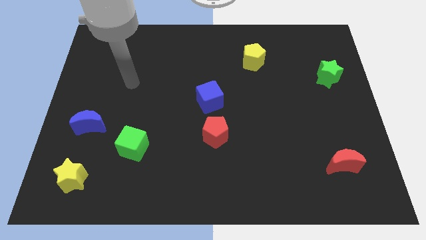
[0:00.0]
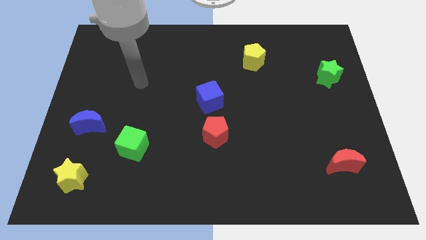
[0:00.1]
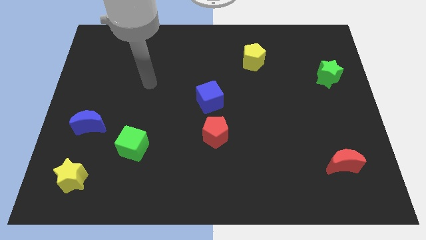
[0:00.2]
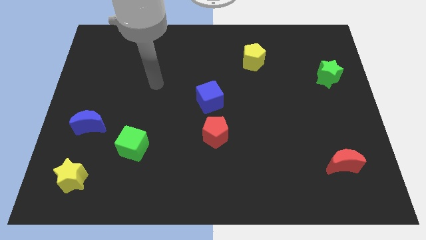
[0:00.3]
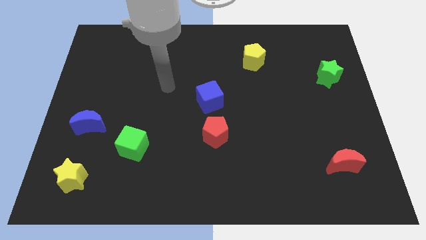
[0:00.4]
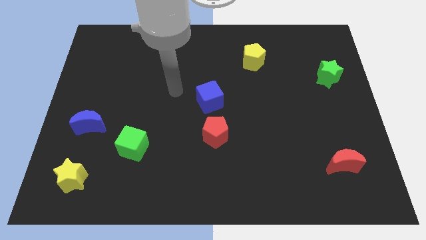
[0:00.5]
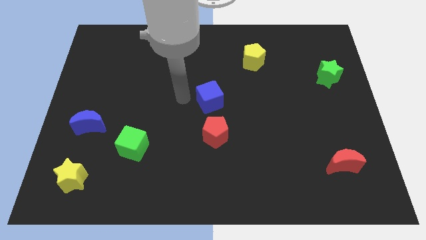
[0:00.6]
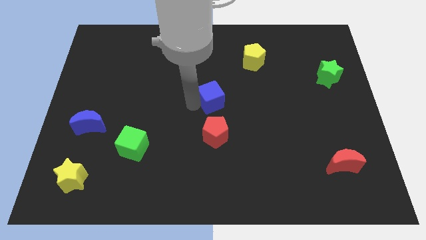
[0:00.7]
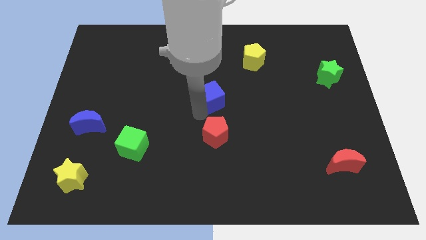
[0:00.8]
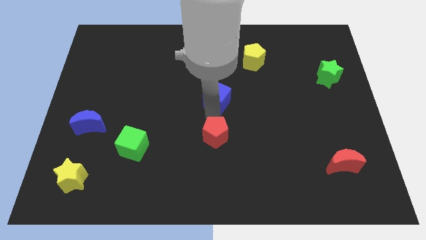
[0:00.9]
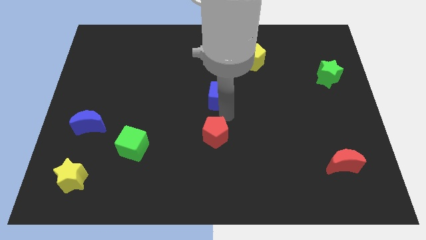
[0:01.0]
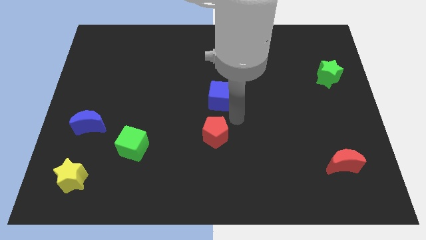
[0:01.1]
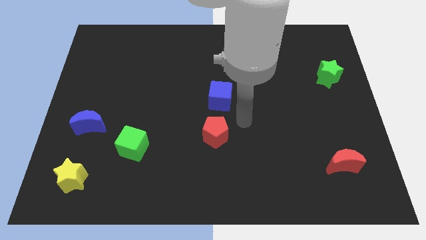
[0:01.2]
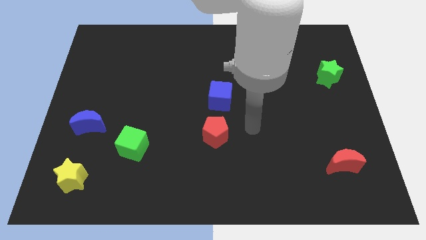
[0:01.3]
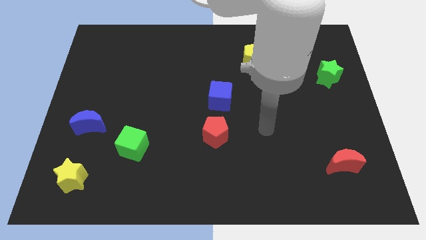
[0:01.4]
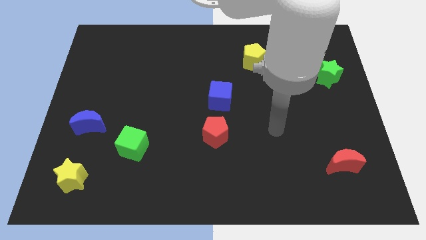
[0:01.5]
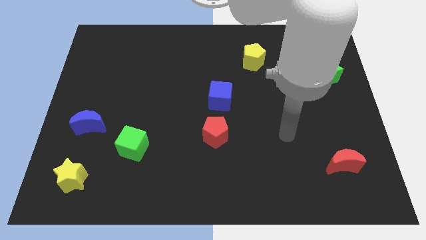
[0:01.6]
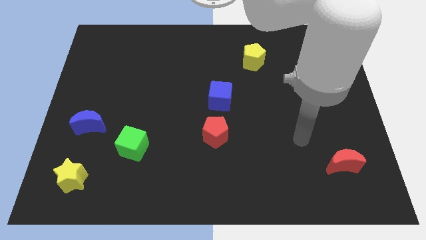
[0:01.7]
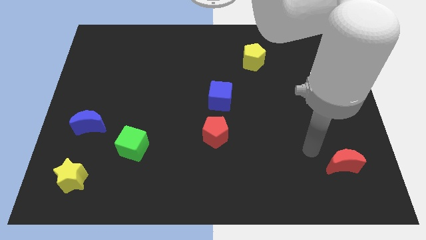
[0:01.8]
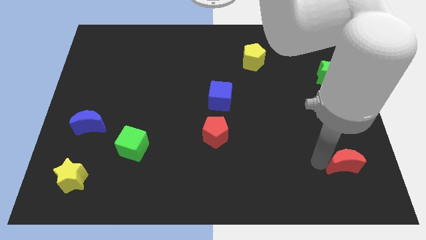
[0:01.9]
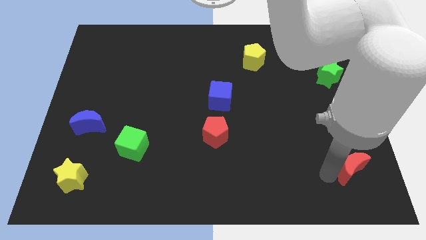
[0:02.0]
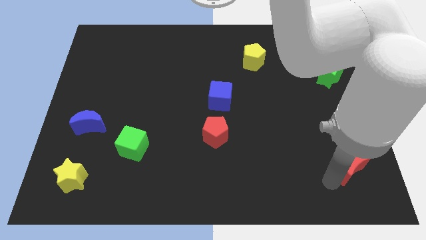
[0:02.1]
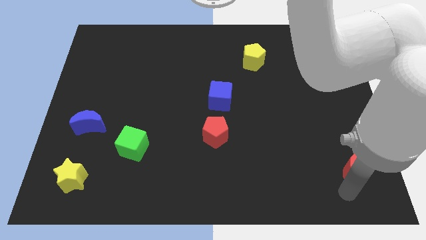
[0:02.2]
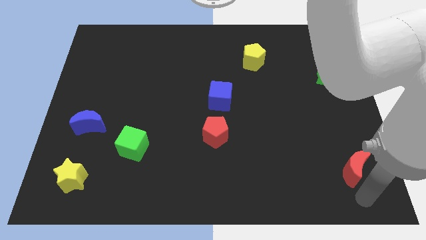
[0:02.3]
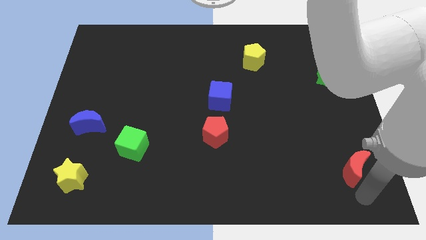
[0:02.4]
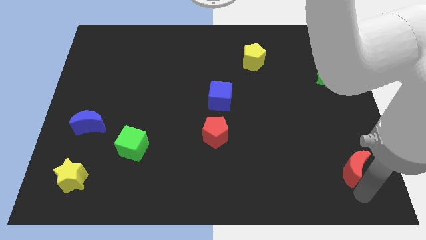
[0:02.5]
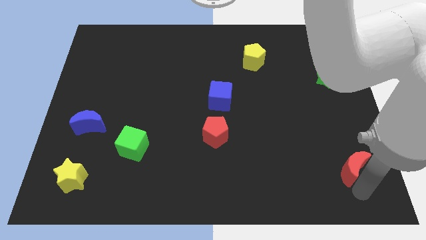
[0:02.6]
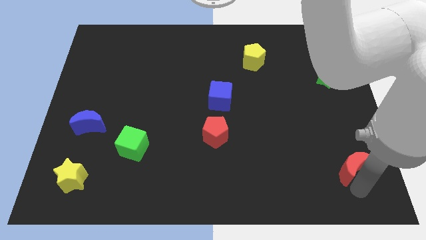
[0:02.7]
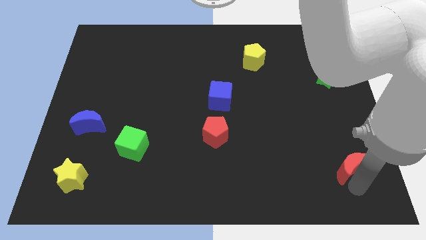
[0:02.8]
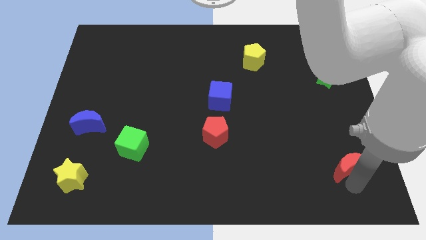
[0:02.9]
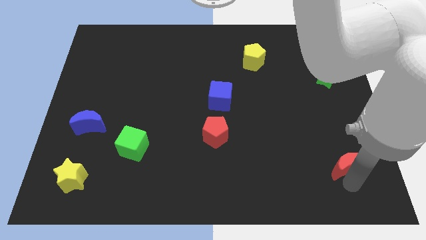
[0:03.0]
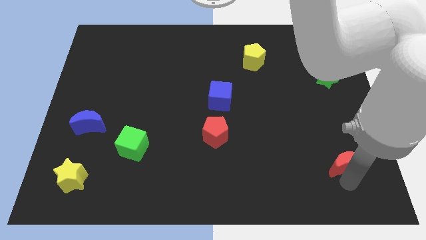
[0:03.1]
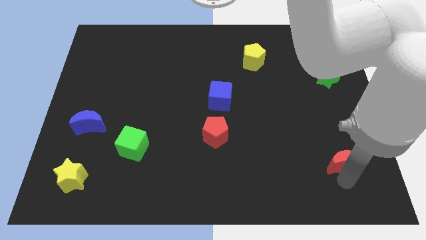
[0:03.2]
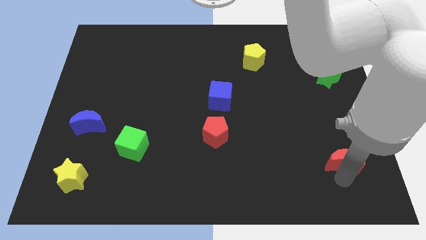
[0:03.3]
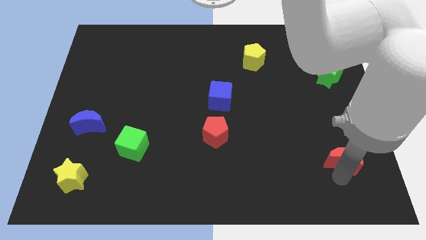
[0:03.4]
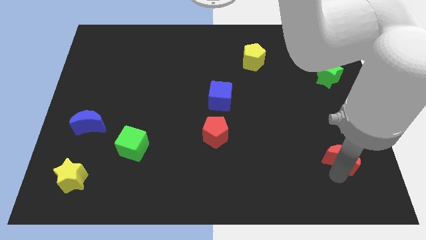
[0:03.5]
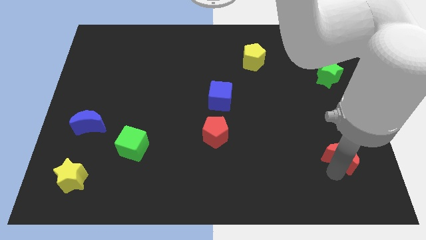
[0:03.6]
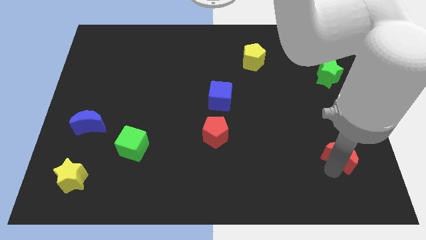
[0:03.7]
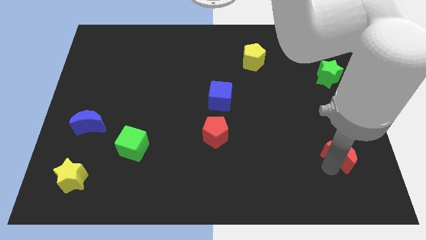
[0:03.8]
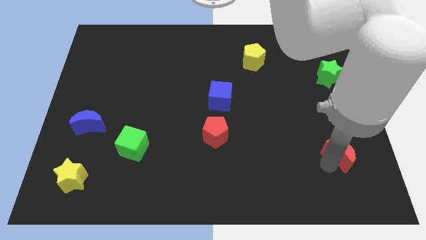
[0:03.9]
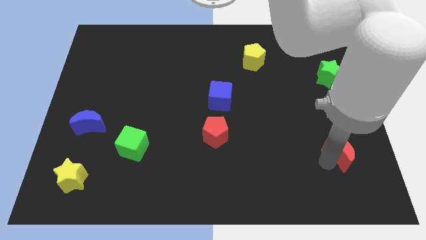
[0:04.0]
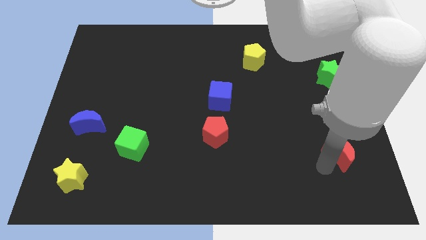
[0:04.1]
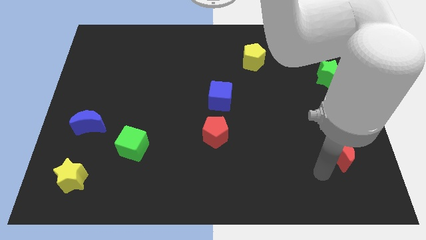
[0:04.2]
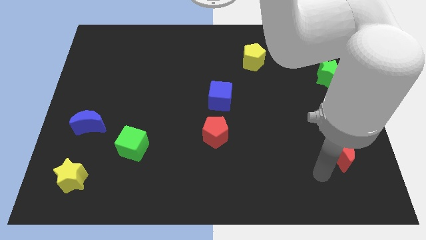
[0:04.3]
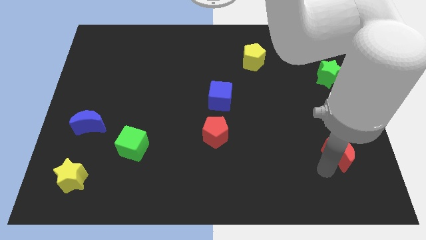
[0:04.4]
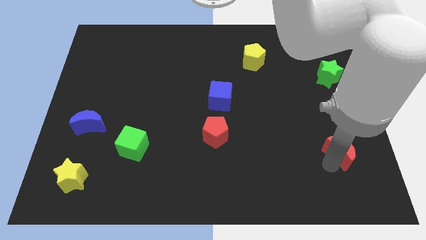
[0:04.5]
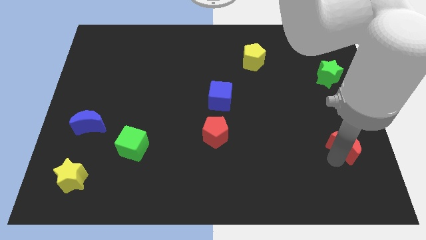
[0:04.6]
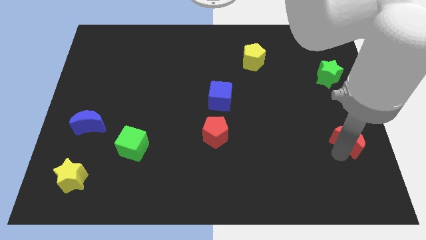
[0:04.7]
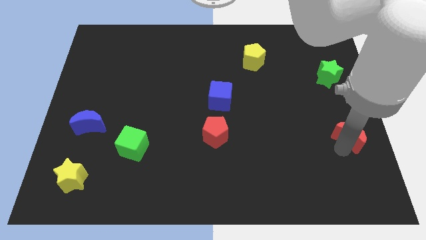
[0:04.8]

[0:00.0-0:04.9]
slide the red moon to the center right
